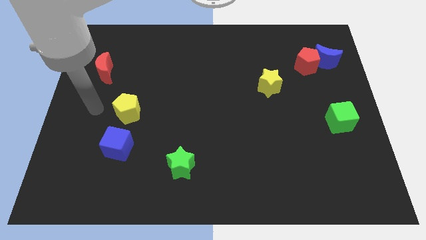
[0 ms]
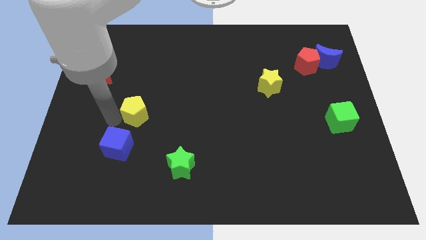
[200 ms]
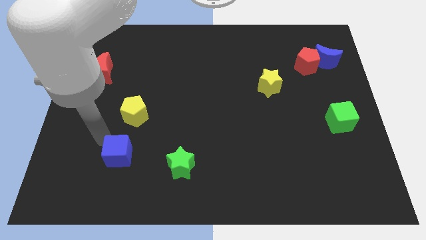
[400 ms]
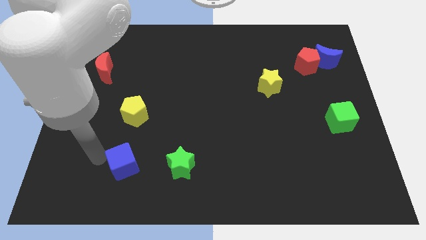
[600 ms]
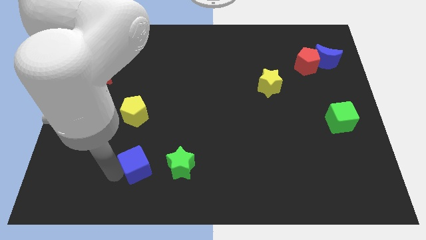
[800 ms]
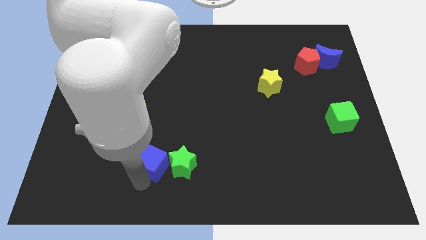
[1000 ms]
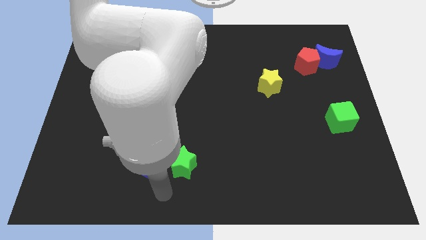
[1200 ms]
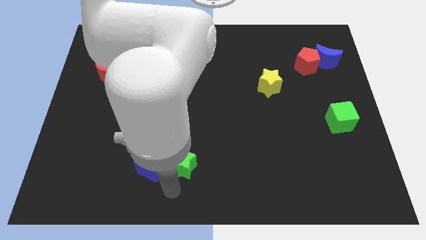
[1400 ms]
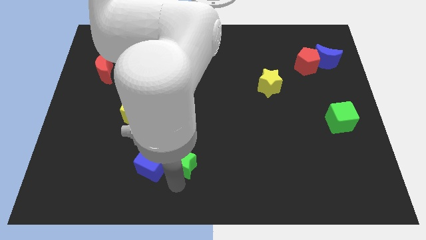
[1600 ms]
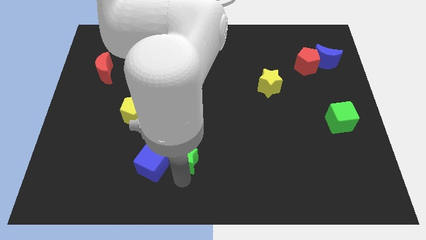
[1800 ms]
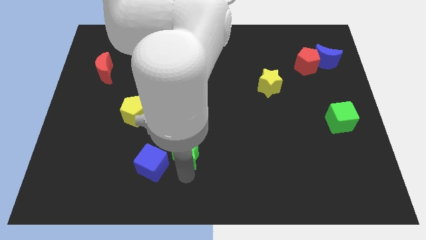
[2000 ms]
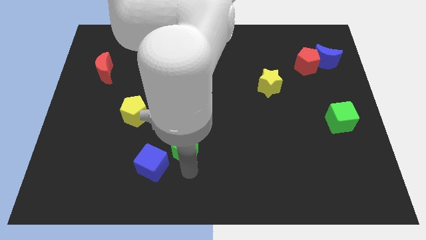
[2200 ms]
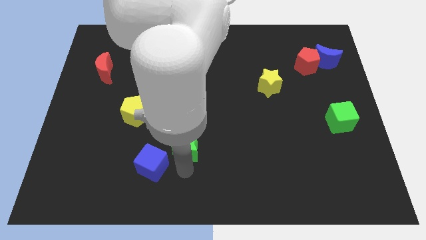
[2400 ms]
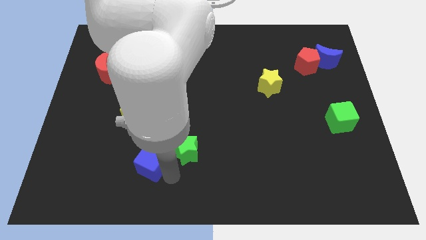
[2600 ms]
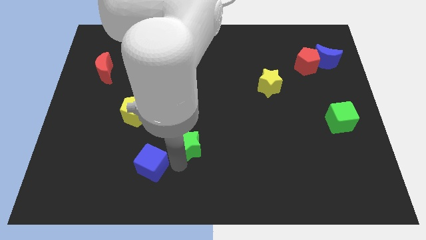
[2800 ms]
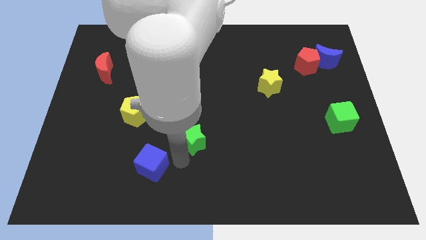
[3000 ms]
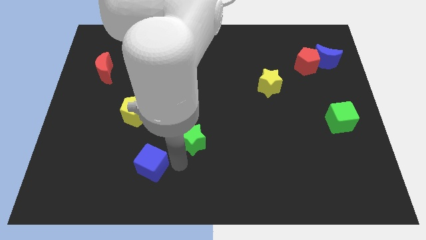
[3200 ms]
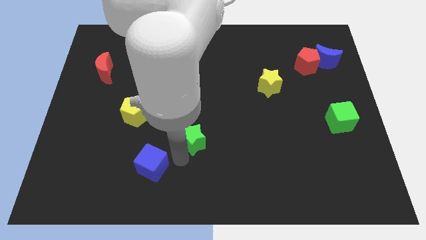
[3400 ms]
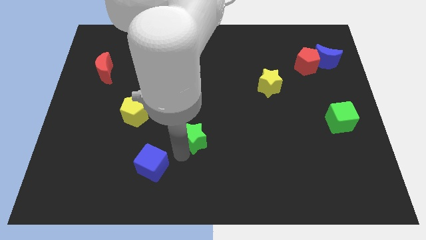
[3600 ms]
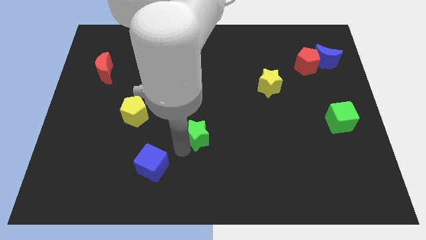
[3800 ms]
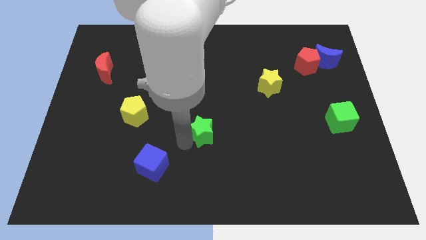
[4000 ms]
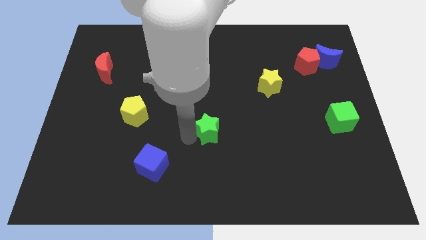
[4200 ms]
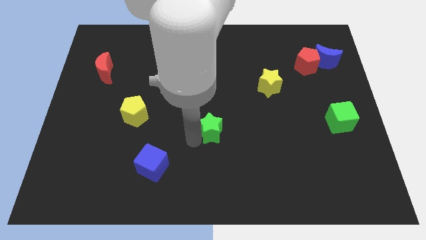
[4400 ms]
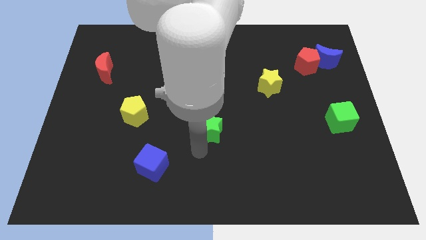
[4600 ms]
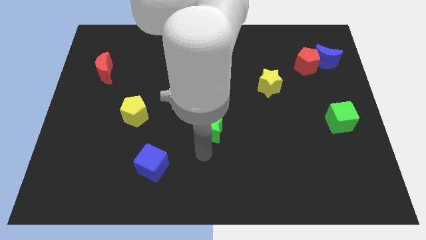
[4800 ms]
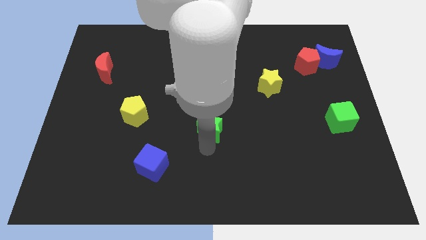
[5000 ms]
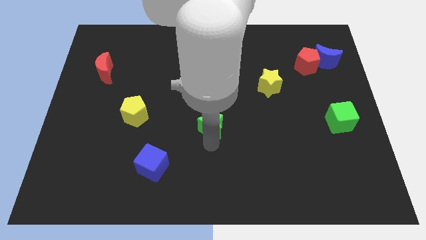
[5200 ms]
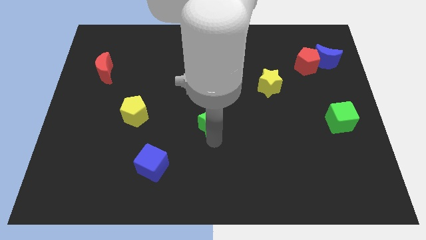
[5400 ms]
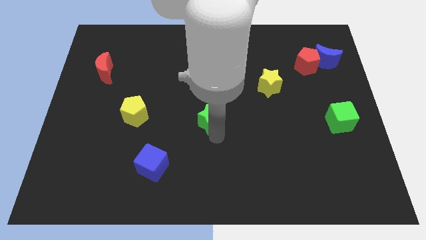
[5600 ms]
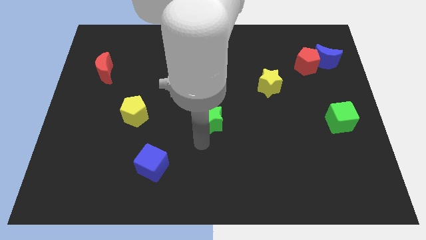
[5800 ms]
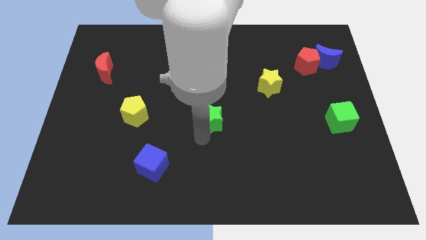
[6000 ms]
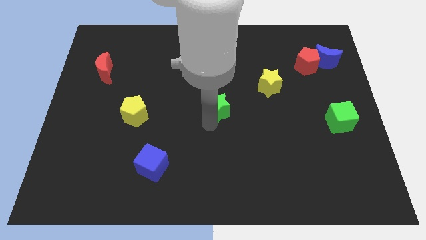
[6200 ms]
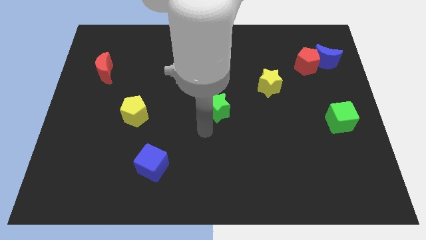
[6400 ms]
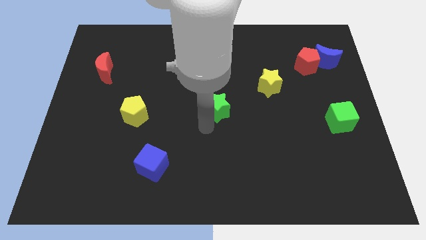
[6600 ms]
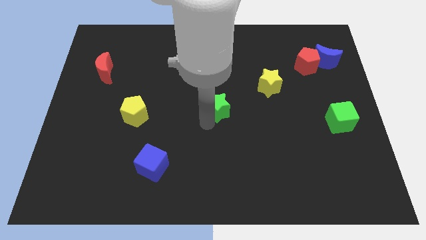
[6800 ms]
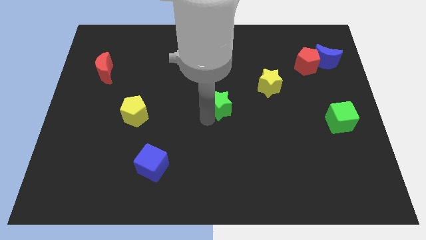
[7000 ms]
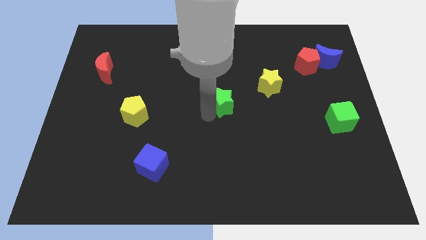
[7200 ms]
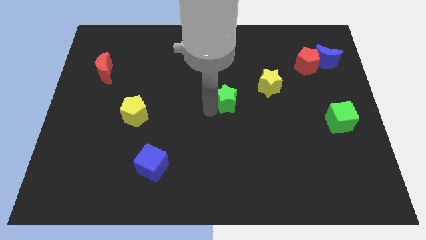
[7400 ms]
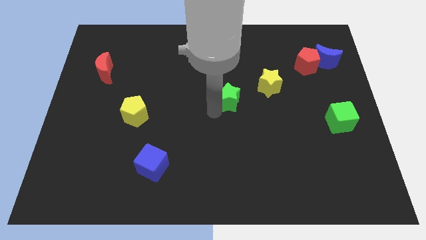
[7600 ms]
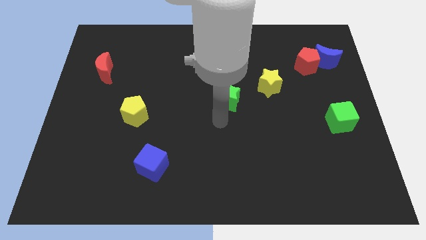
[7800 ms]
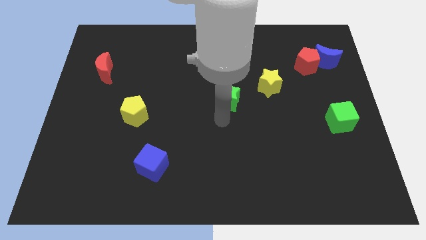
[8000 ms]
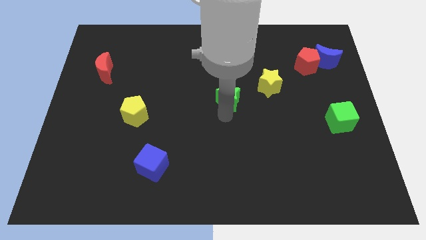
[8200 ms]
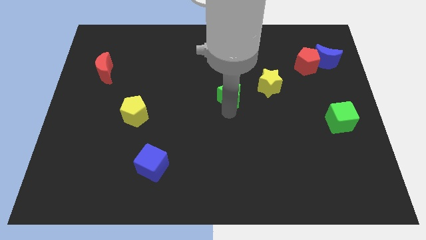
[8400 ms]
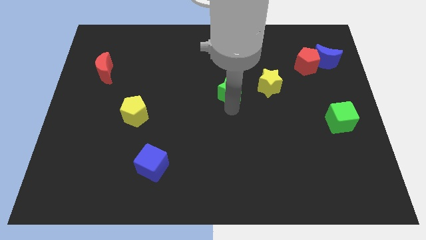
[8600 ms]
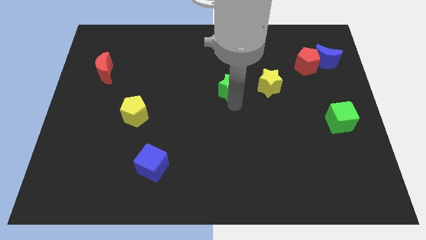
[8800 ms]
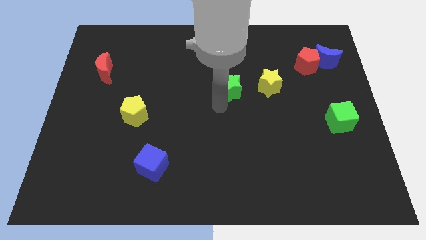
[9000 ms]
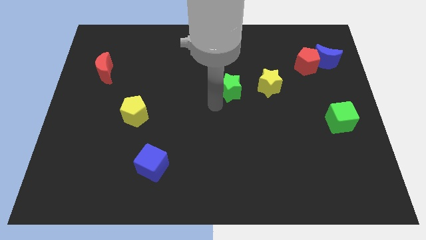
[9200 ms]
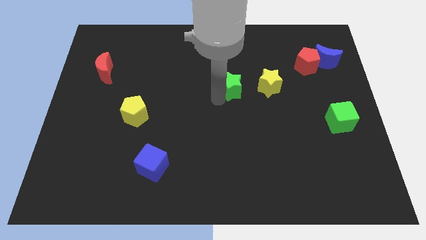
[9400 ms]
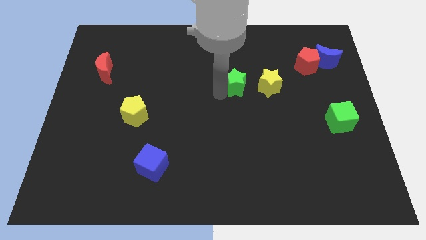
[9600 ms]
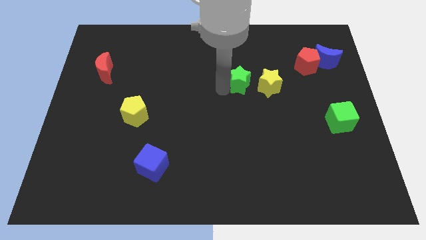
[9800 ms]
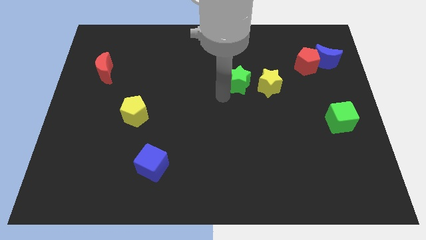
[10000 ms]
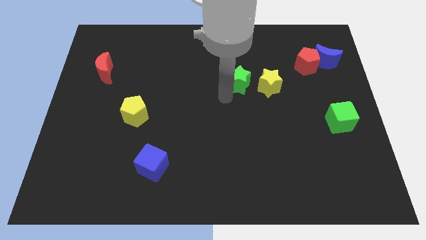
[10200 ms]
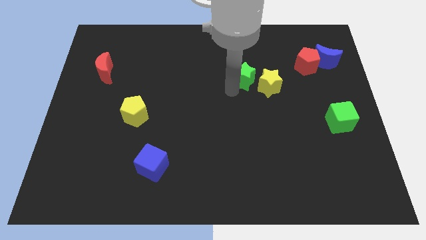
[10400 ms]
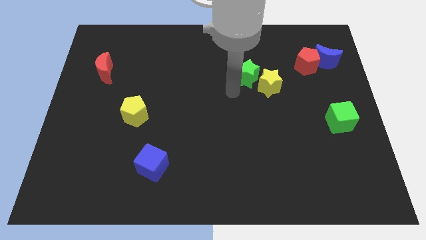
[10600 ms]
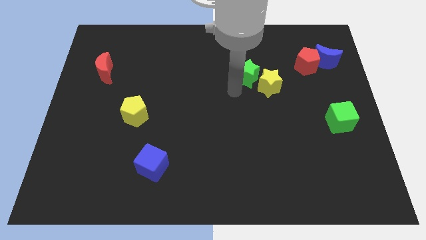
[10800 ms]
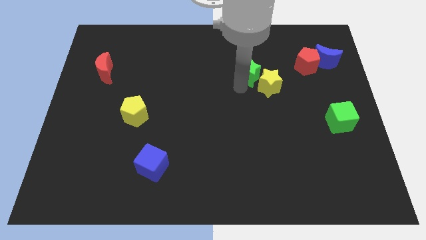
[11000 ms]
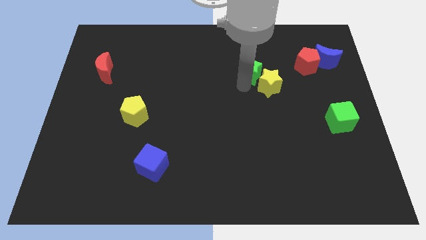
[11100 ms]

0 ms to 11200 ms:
push the green star to the top side of the yellow star

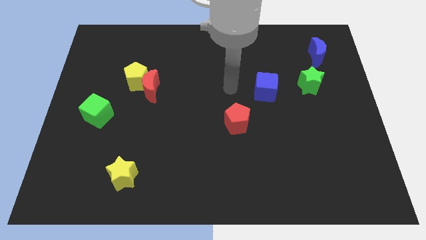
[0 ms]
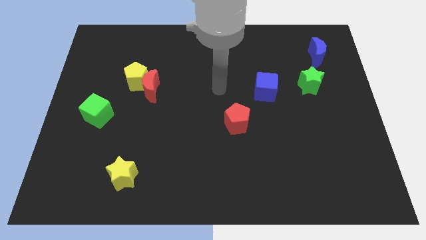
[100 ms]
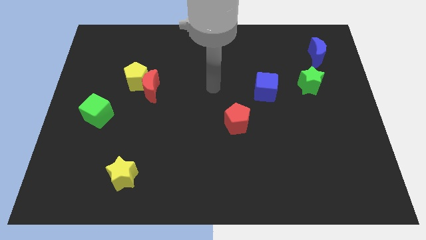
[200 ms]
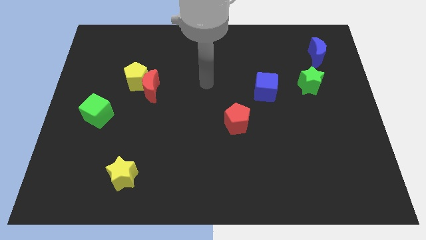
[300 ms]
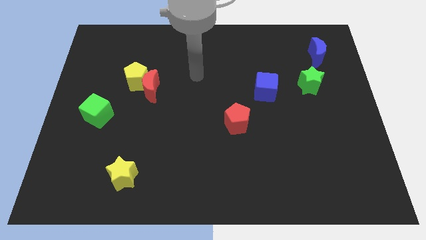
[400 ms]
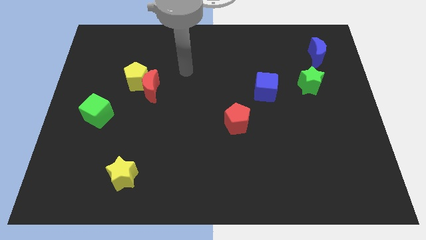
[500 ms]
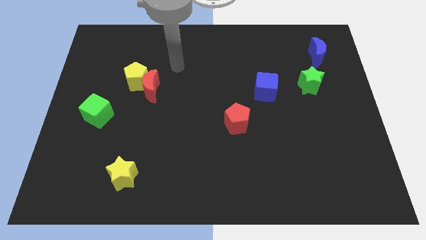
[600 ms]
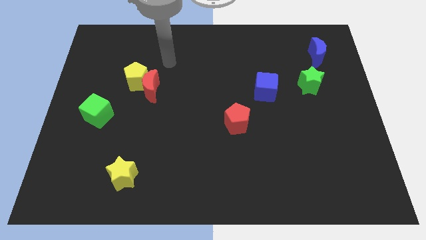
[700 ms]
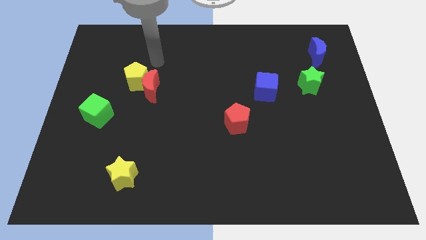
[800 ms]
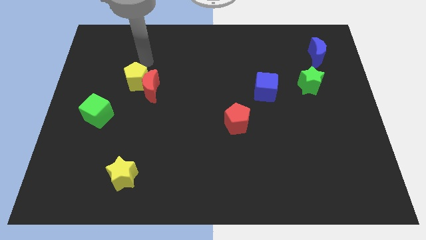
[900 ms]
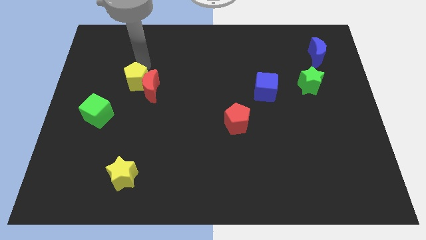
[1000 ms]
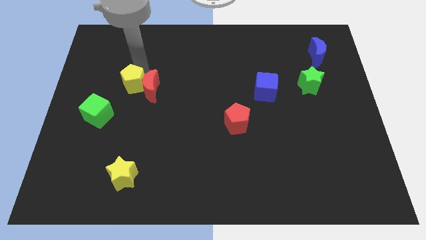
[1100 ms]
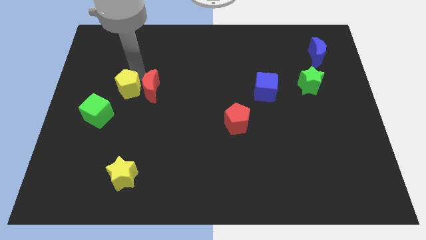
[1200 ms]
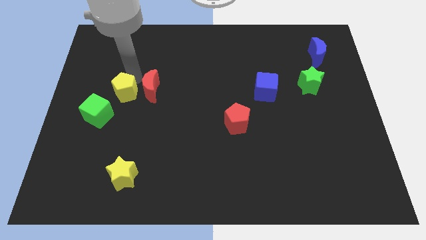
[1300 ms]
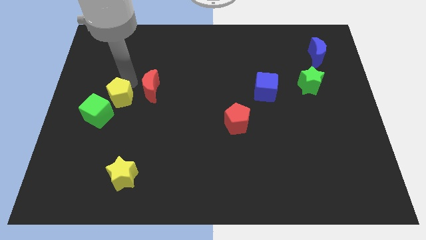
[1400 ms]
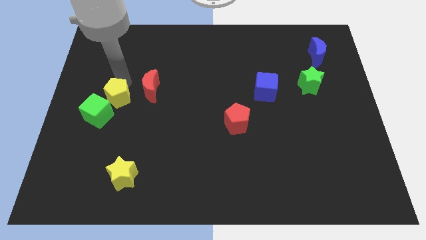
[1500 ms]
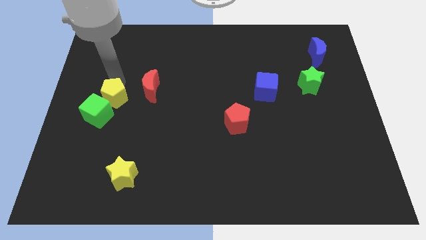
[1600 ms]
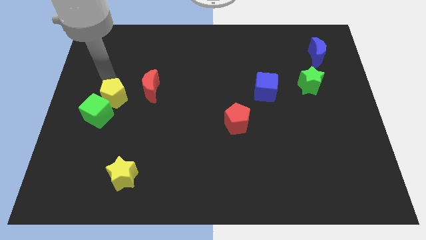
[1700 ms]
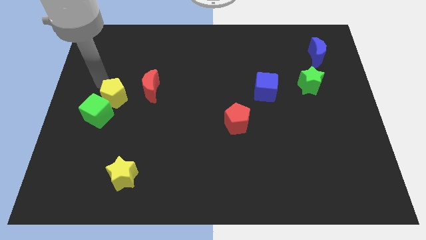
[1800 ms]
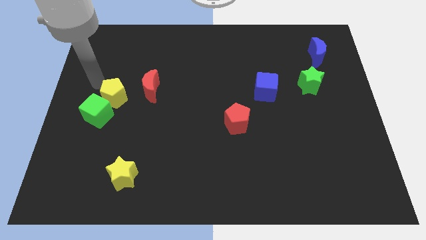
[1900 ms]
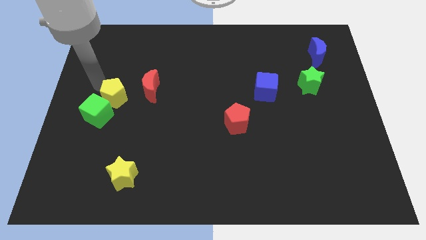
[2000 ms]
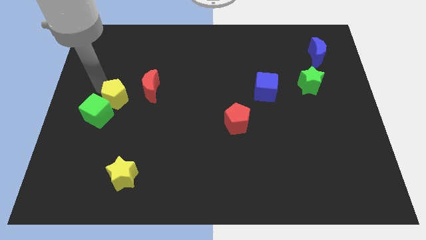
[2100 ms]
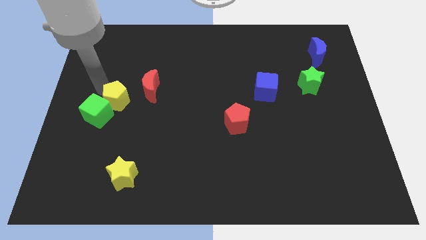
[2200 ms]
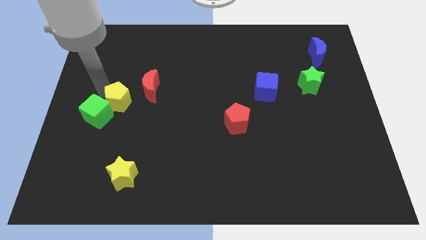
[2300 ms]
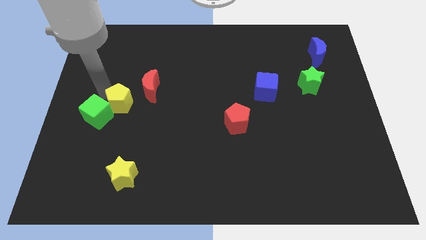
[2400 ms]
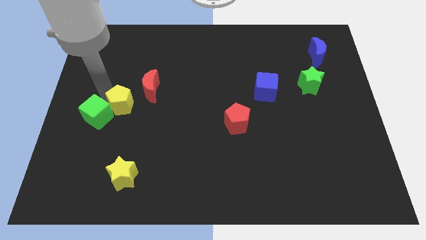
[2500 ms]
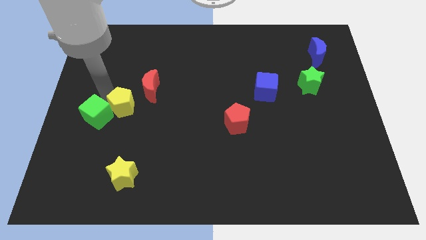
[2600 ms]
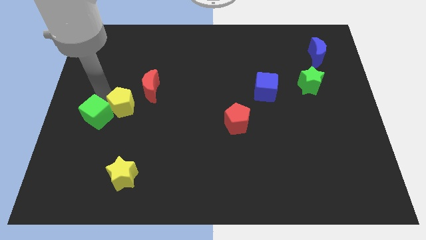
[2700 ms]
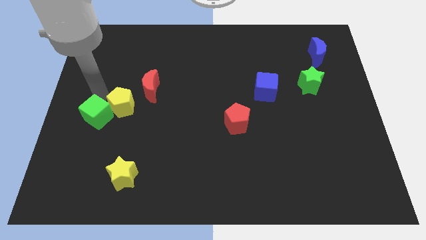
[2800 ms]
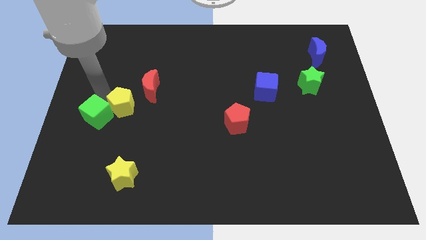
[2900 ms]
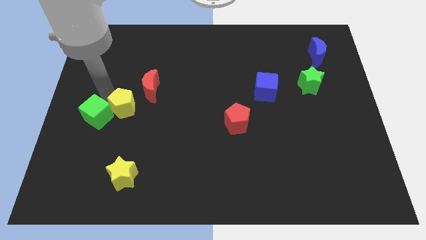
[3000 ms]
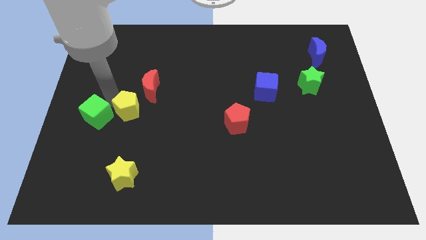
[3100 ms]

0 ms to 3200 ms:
move the yellow pentagon to the bottom side of the red moon
